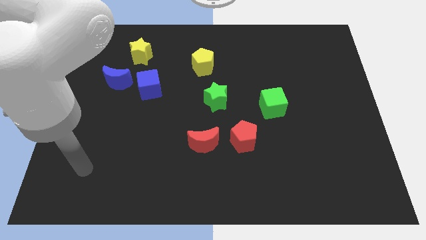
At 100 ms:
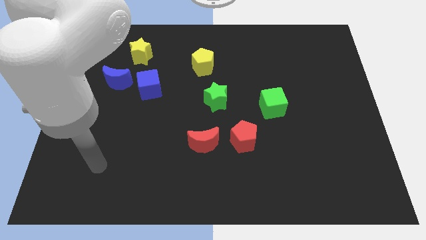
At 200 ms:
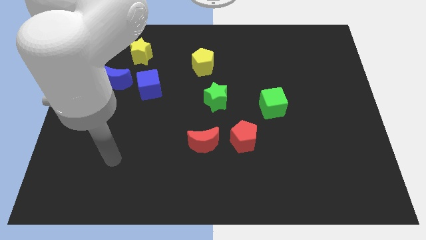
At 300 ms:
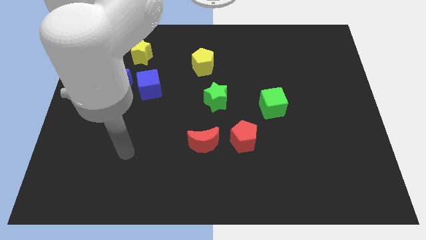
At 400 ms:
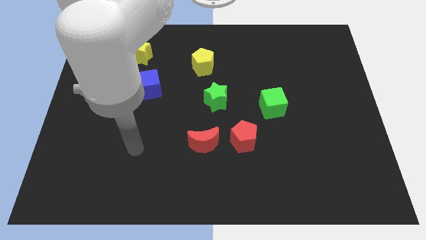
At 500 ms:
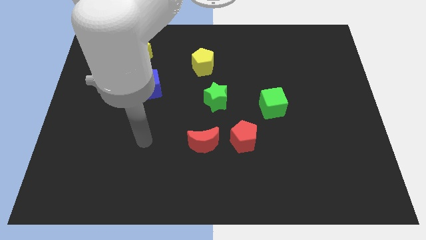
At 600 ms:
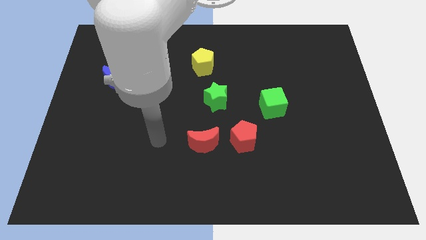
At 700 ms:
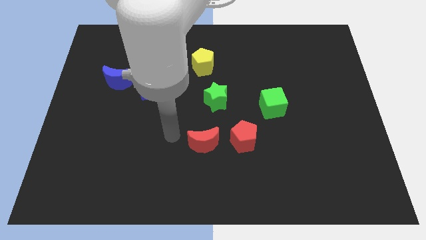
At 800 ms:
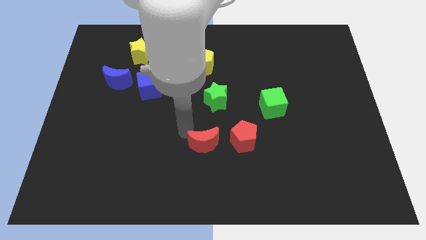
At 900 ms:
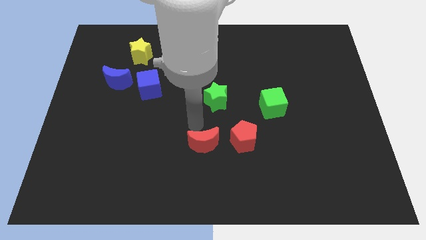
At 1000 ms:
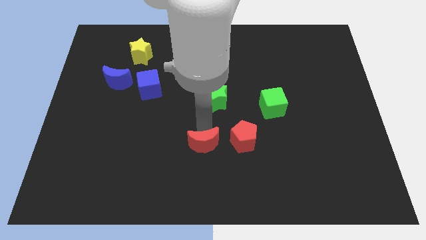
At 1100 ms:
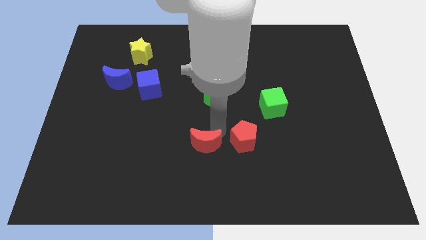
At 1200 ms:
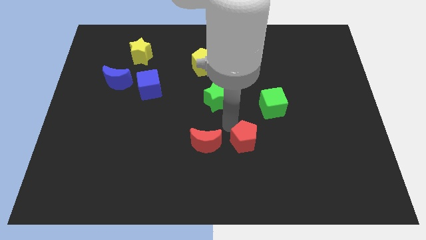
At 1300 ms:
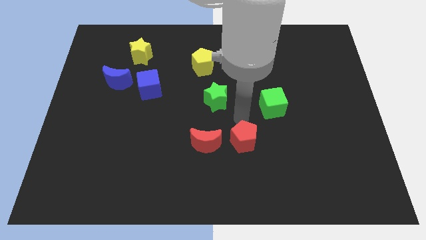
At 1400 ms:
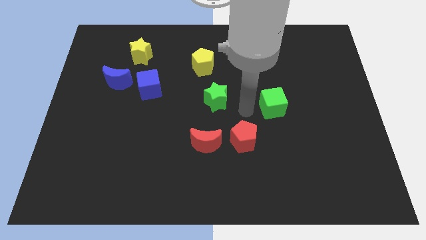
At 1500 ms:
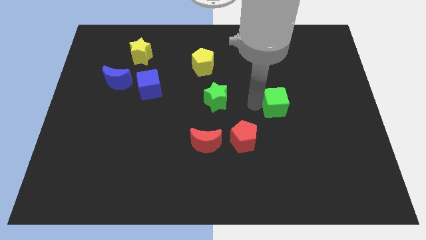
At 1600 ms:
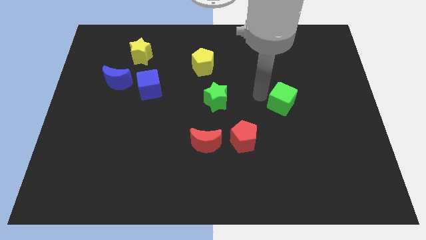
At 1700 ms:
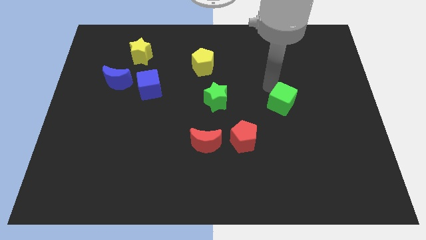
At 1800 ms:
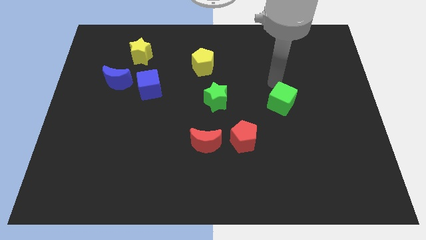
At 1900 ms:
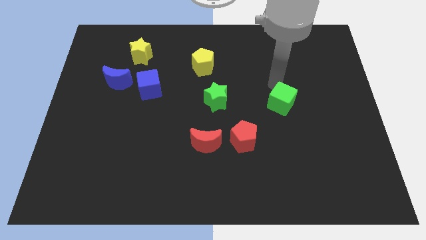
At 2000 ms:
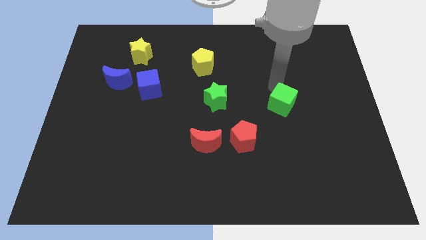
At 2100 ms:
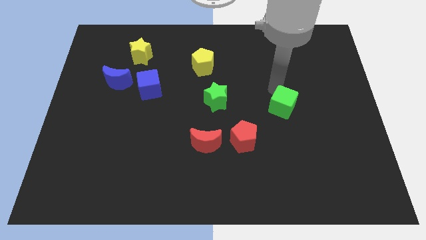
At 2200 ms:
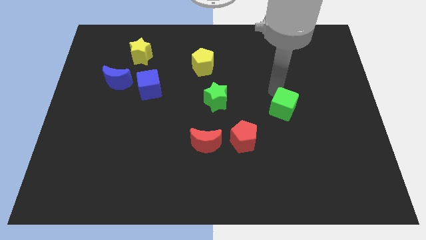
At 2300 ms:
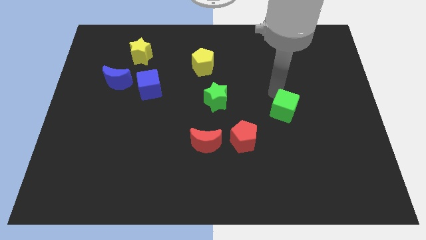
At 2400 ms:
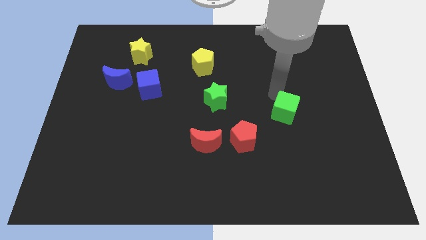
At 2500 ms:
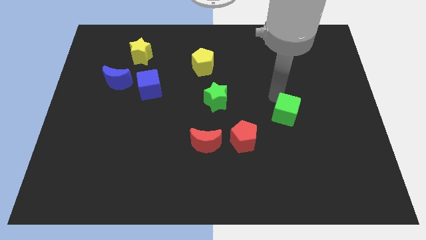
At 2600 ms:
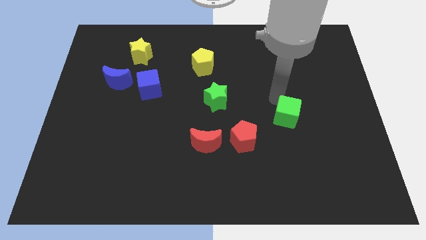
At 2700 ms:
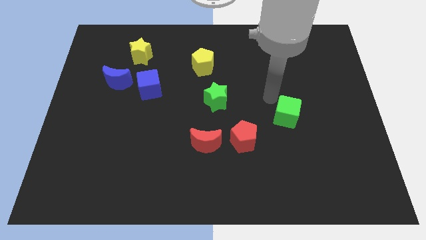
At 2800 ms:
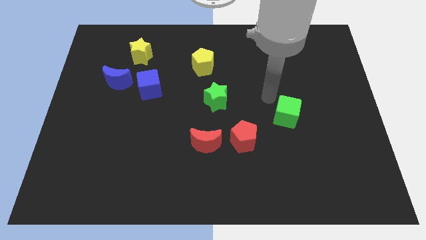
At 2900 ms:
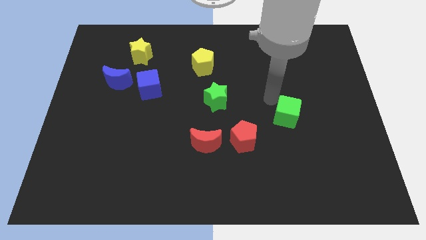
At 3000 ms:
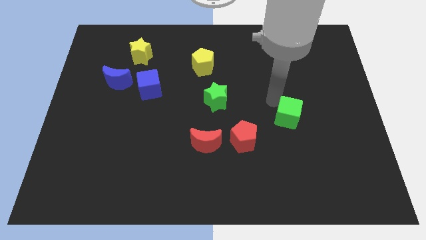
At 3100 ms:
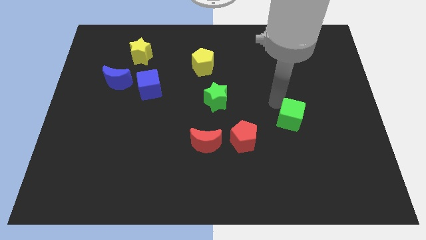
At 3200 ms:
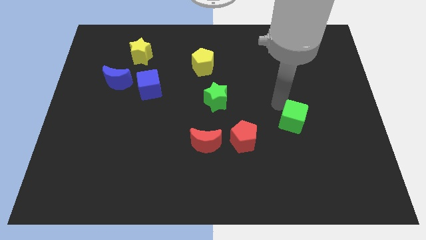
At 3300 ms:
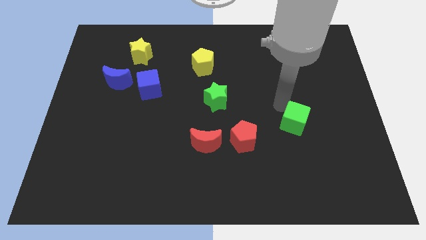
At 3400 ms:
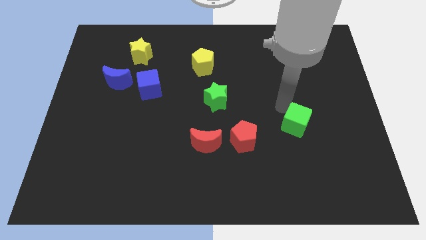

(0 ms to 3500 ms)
push the green cube down and then to the right a little

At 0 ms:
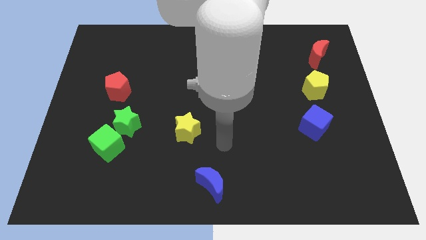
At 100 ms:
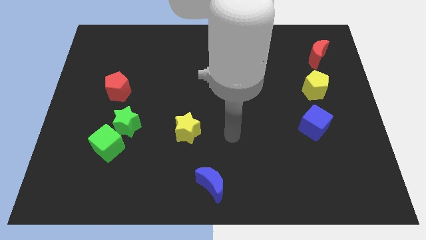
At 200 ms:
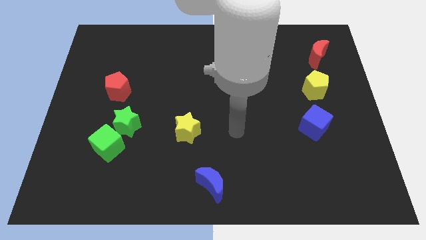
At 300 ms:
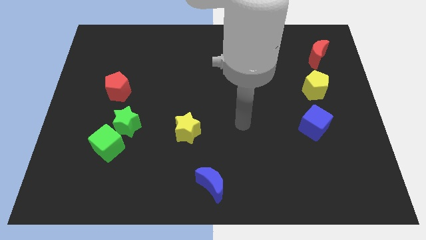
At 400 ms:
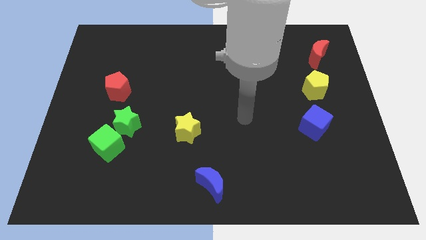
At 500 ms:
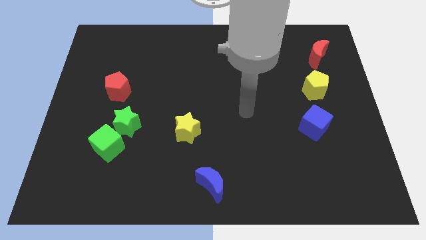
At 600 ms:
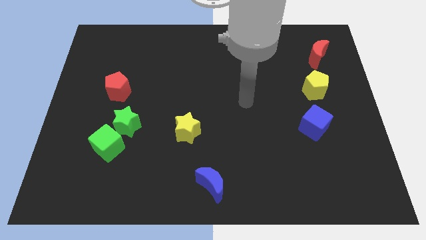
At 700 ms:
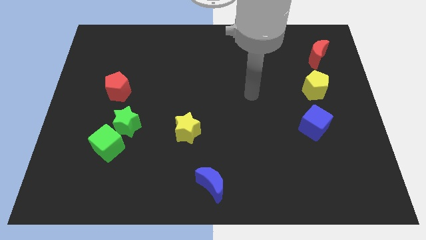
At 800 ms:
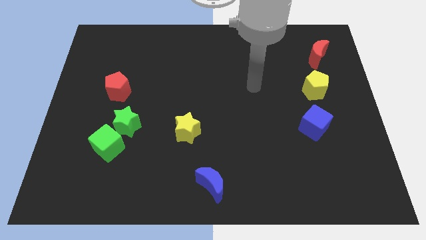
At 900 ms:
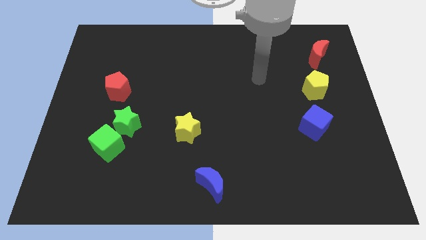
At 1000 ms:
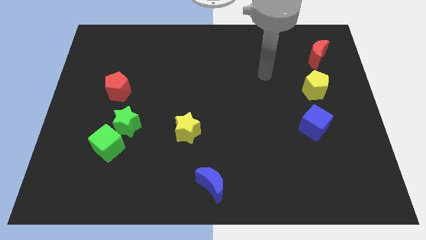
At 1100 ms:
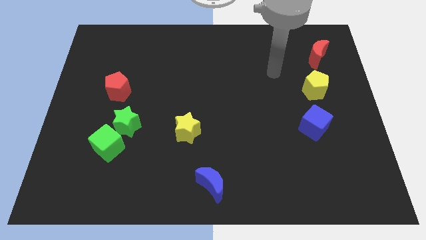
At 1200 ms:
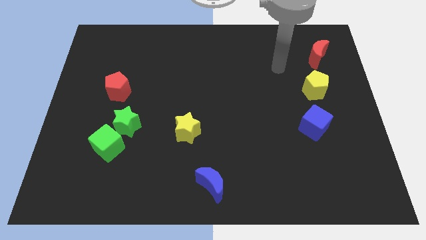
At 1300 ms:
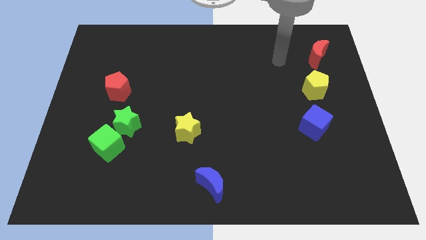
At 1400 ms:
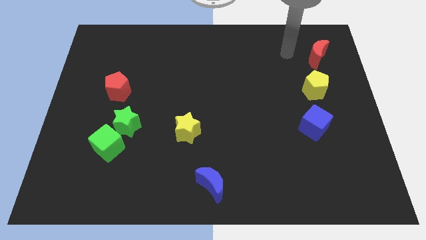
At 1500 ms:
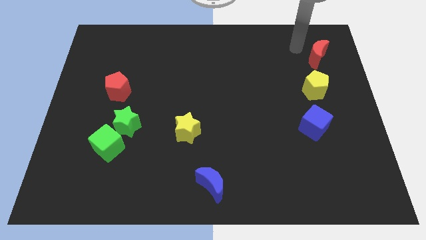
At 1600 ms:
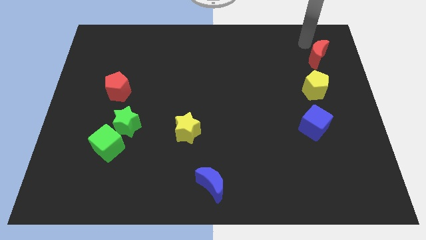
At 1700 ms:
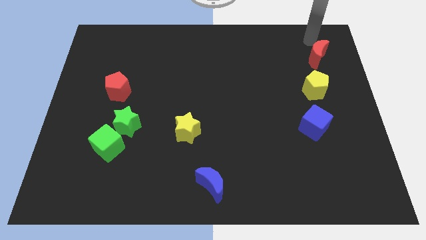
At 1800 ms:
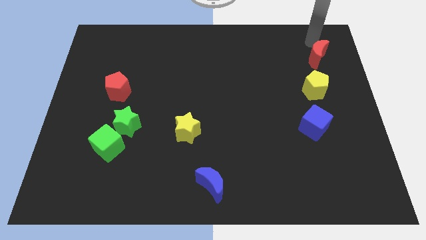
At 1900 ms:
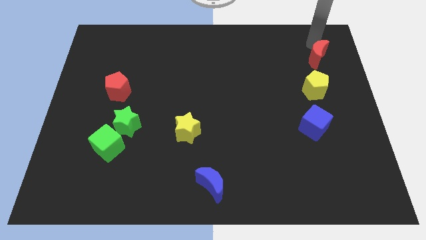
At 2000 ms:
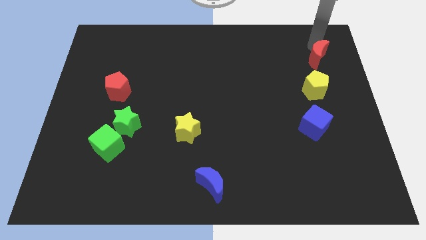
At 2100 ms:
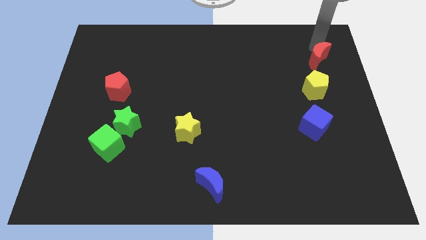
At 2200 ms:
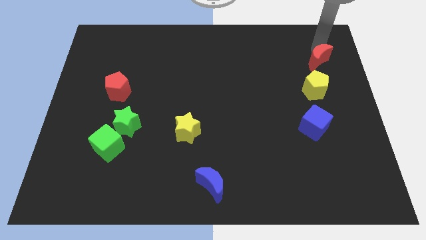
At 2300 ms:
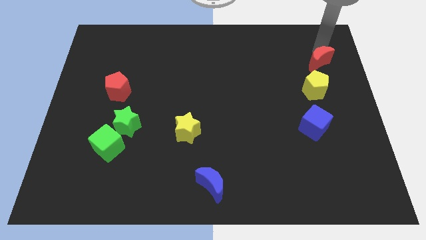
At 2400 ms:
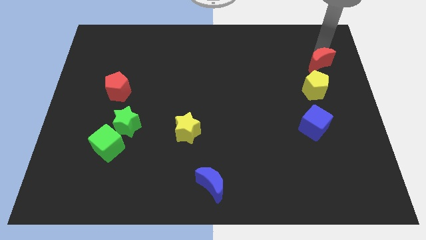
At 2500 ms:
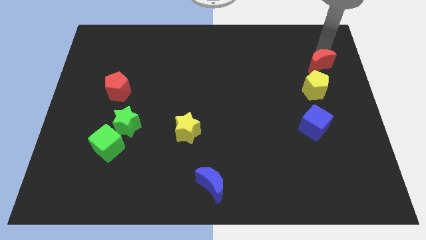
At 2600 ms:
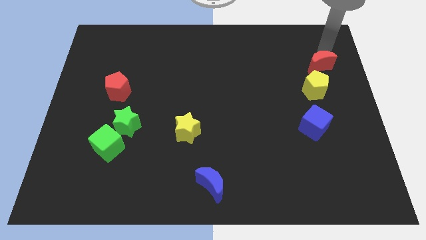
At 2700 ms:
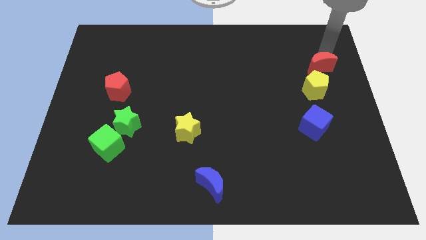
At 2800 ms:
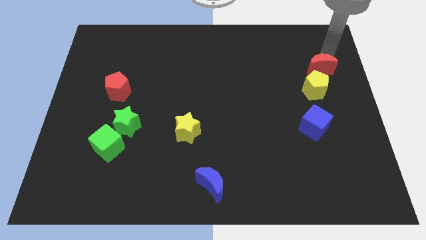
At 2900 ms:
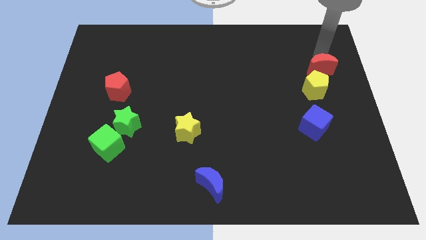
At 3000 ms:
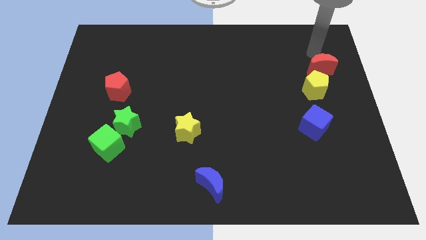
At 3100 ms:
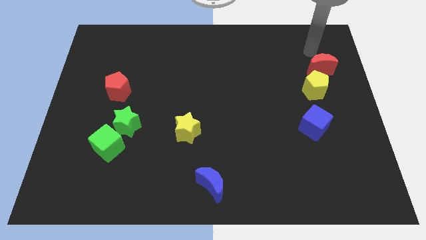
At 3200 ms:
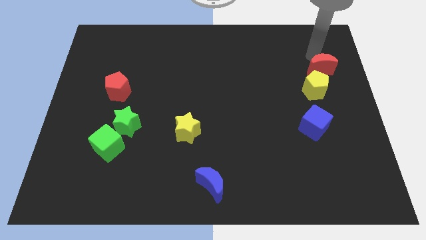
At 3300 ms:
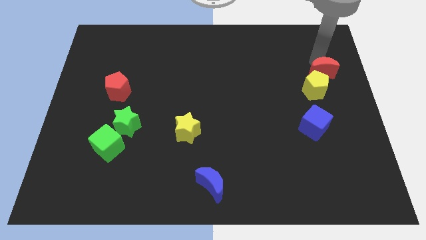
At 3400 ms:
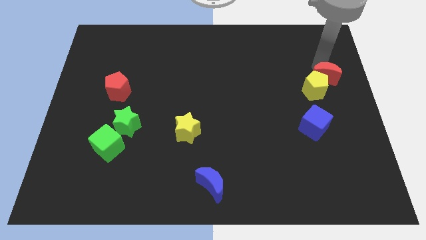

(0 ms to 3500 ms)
push the red moon a little bit down

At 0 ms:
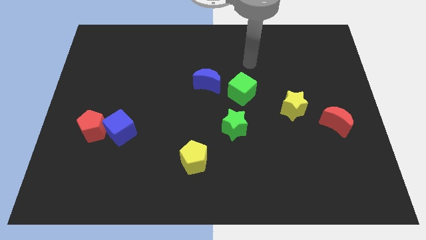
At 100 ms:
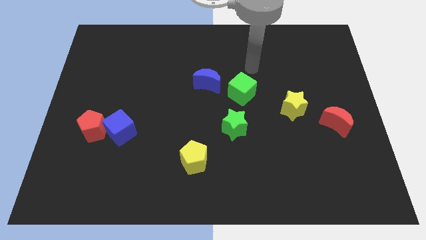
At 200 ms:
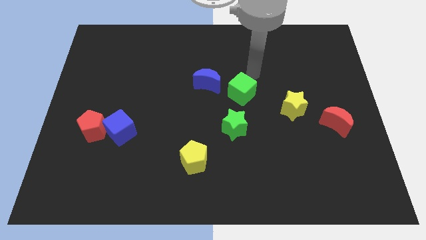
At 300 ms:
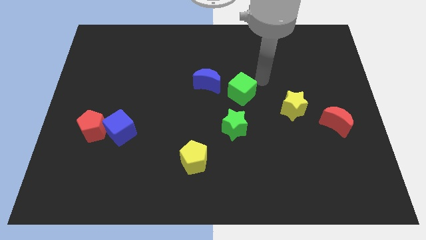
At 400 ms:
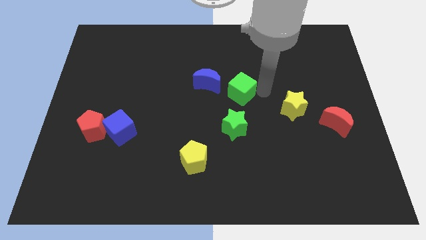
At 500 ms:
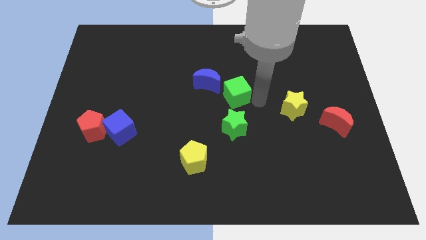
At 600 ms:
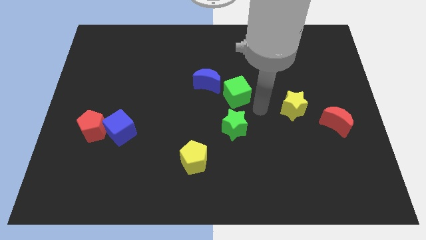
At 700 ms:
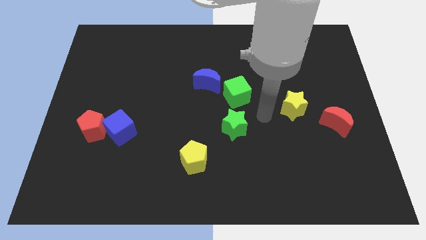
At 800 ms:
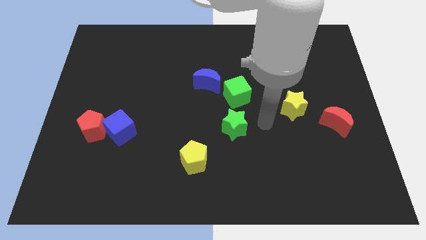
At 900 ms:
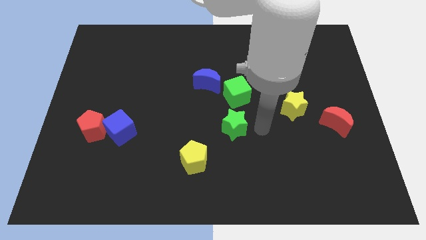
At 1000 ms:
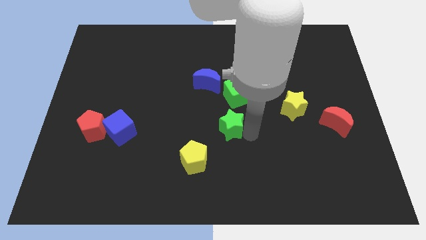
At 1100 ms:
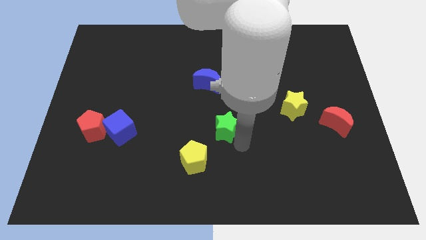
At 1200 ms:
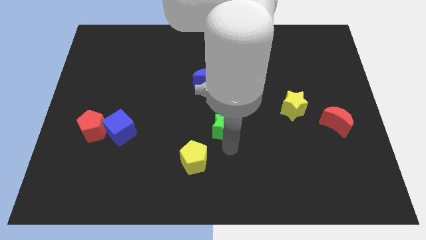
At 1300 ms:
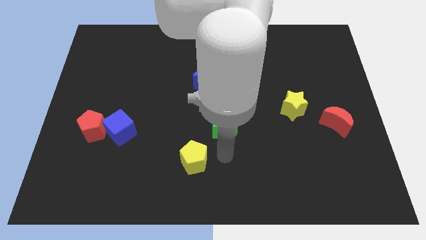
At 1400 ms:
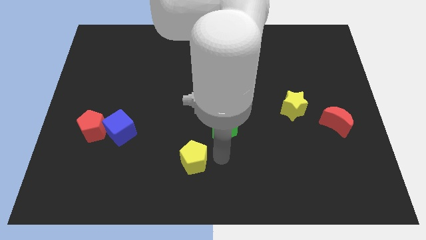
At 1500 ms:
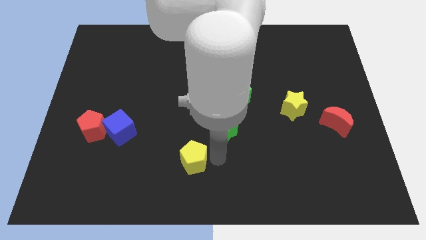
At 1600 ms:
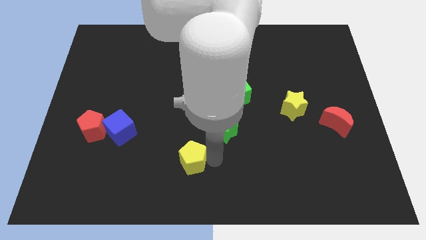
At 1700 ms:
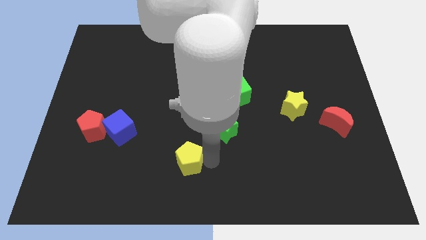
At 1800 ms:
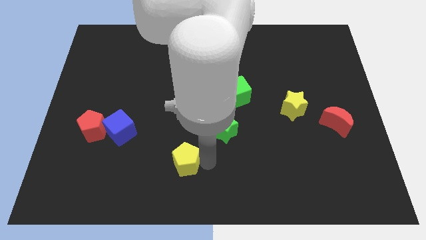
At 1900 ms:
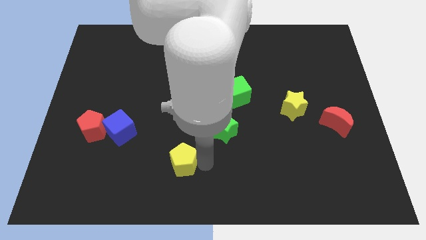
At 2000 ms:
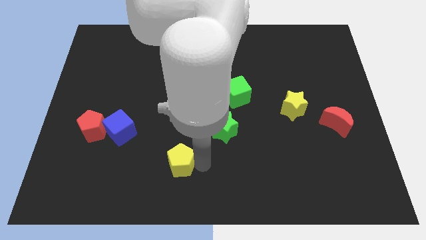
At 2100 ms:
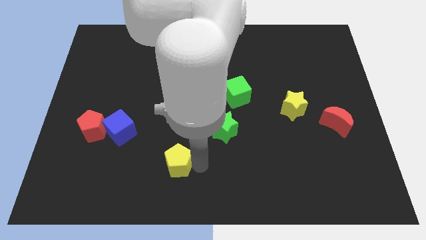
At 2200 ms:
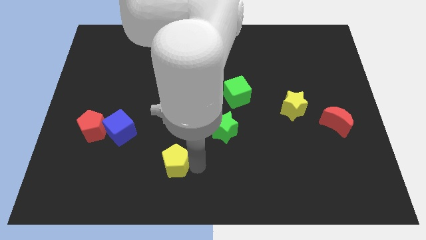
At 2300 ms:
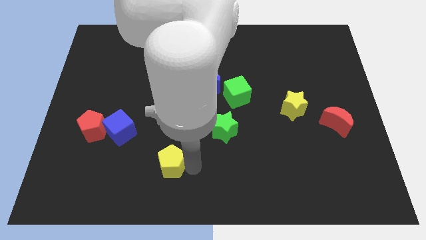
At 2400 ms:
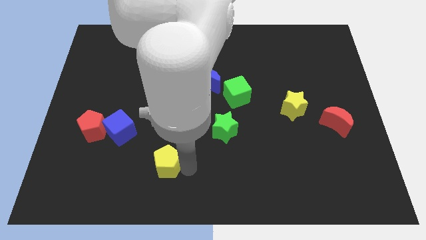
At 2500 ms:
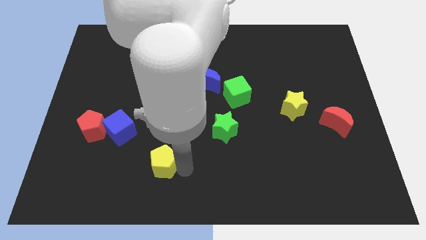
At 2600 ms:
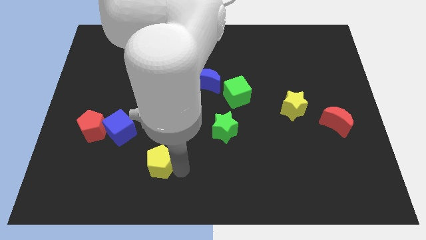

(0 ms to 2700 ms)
slightly move the yellow pentagon to the left
